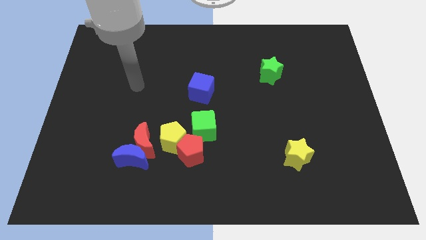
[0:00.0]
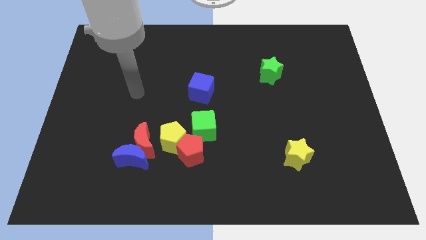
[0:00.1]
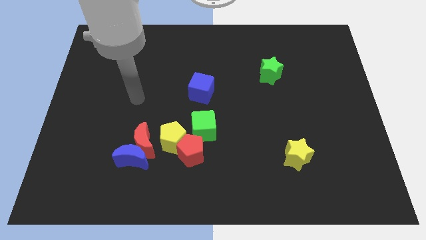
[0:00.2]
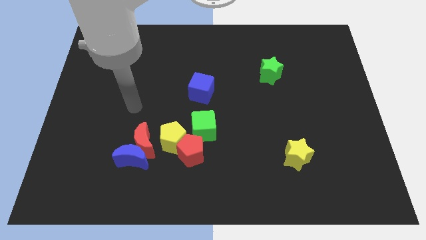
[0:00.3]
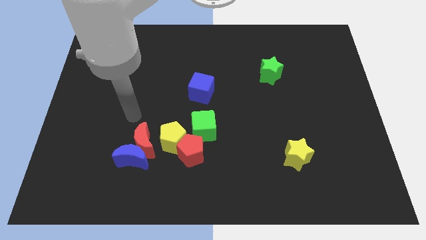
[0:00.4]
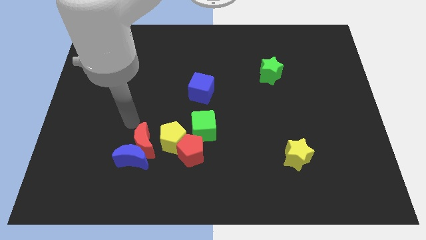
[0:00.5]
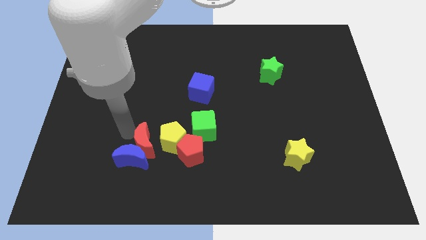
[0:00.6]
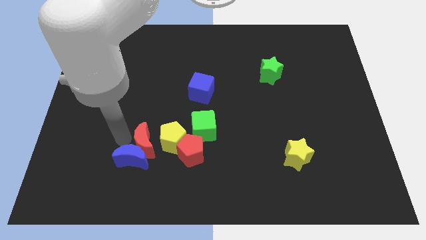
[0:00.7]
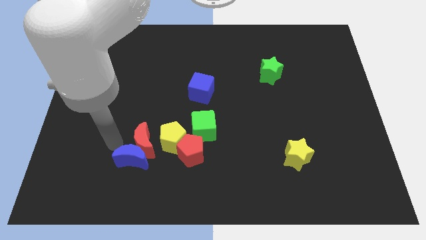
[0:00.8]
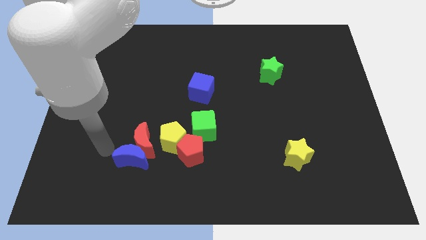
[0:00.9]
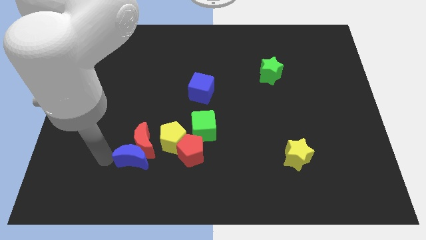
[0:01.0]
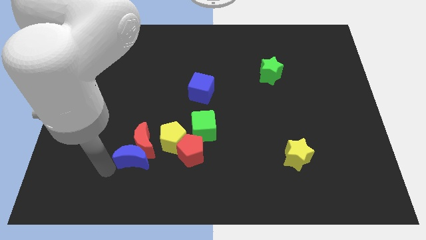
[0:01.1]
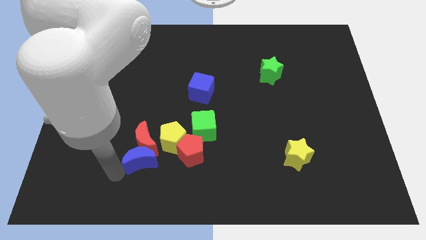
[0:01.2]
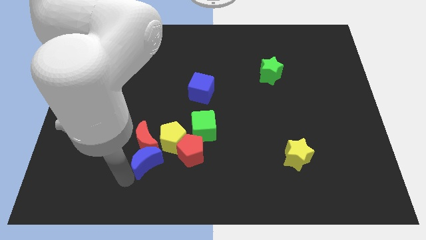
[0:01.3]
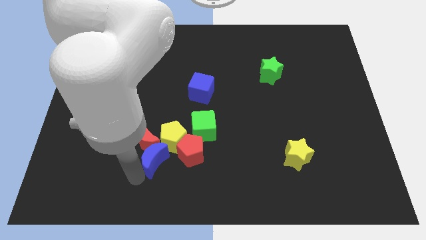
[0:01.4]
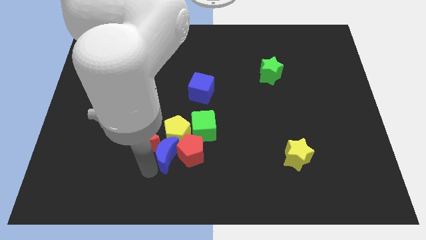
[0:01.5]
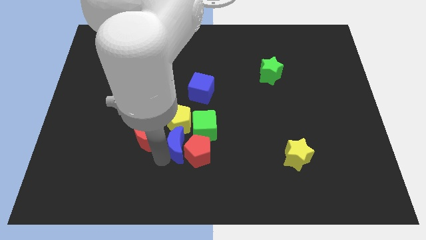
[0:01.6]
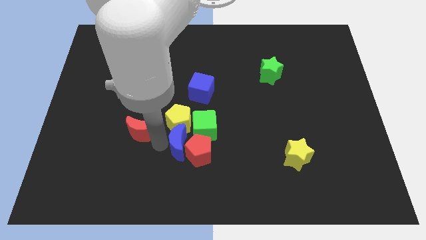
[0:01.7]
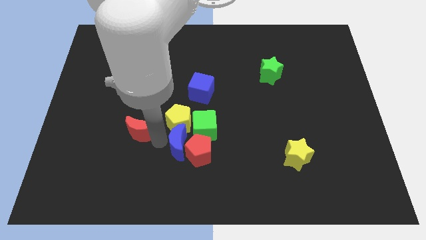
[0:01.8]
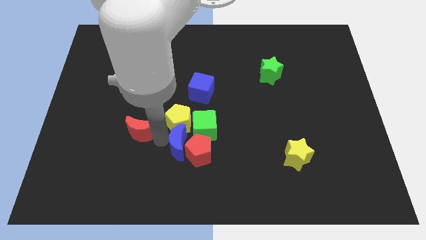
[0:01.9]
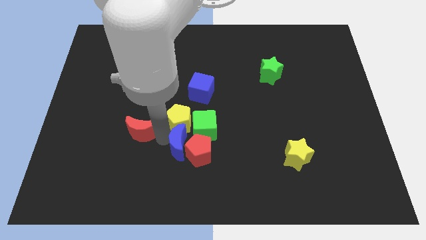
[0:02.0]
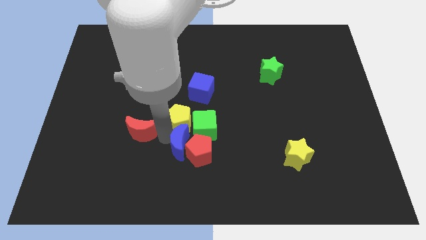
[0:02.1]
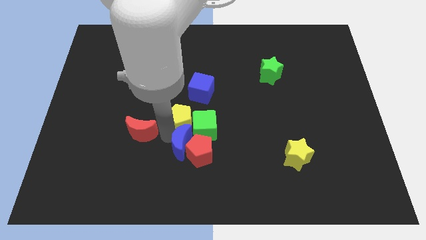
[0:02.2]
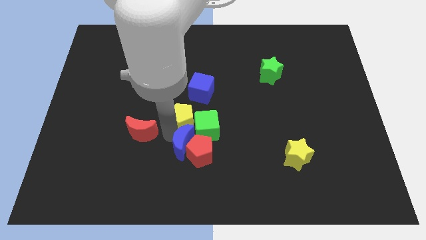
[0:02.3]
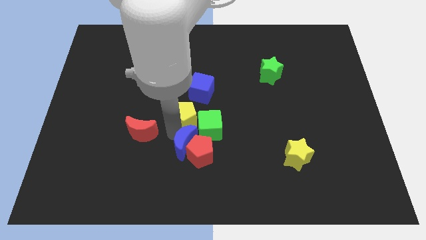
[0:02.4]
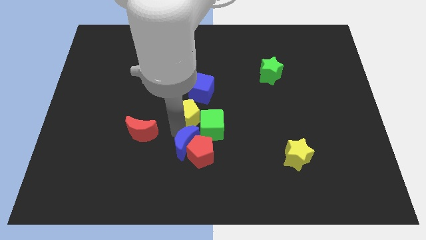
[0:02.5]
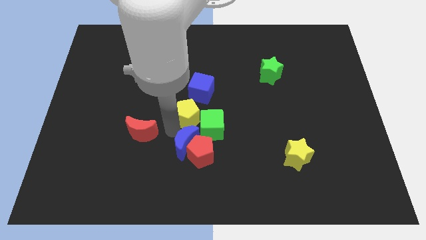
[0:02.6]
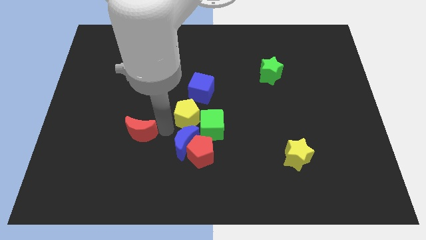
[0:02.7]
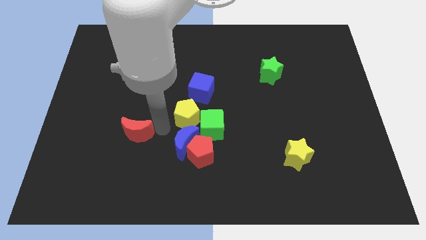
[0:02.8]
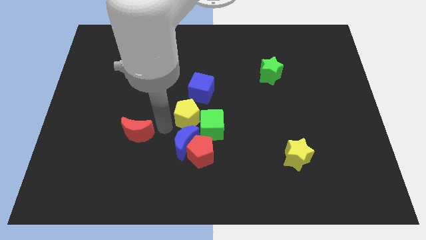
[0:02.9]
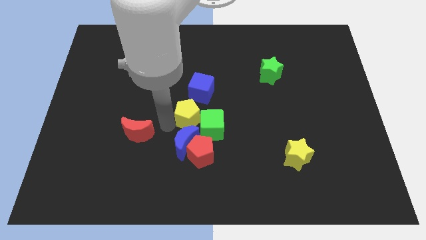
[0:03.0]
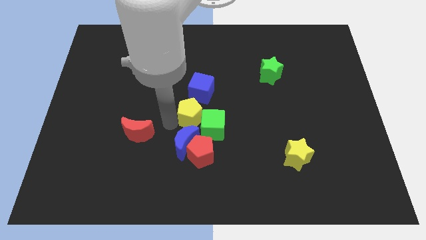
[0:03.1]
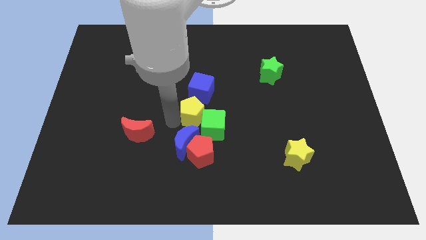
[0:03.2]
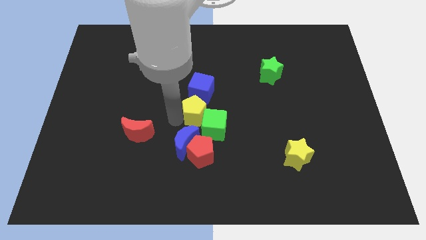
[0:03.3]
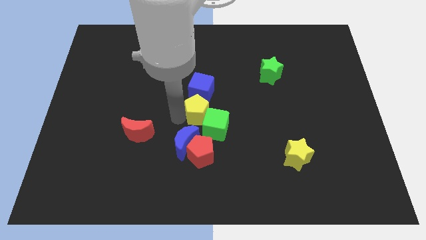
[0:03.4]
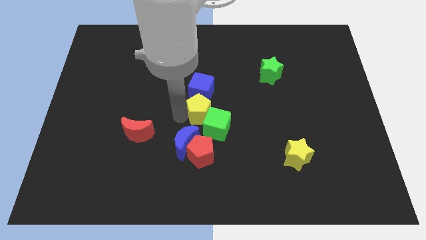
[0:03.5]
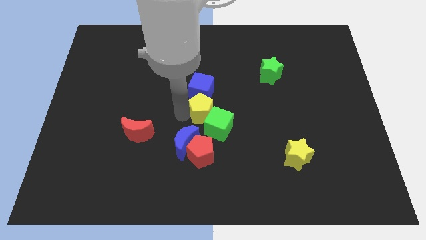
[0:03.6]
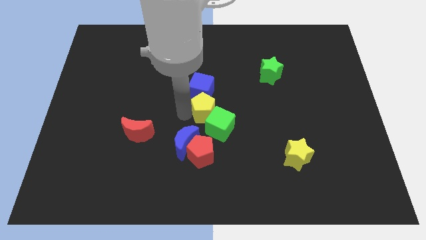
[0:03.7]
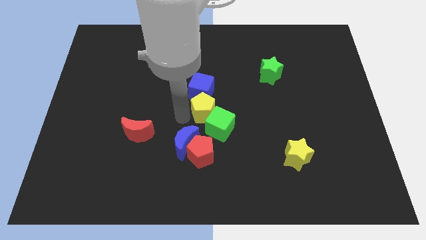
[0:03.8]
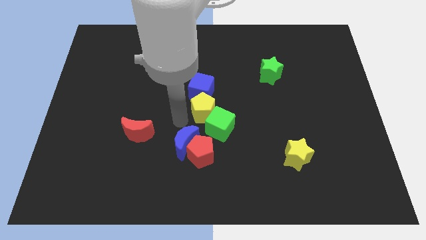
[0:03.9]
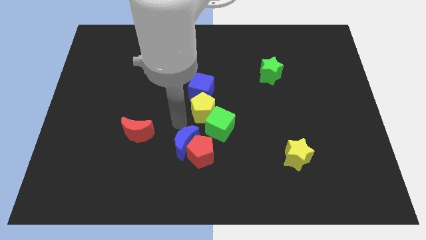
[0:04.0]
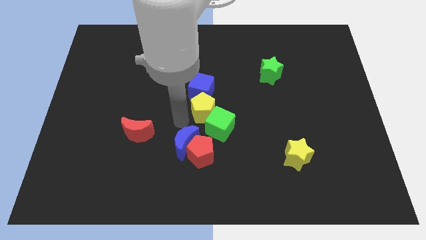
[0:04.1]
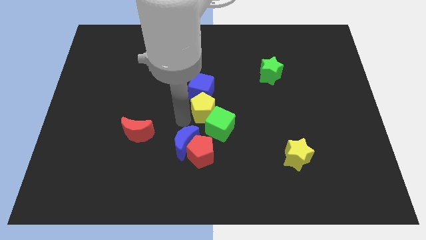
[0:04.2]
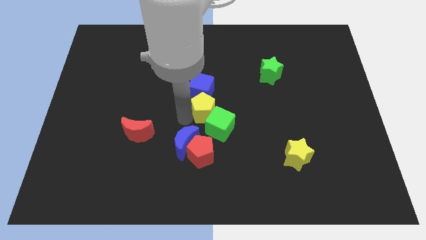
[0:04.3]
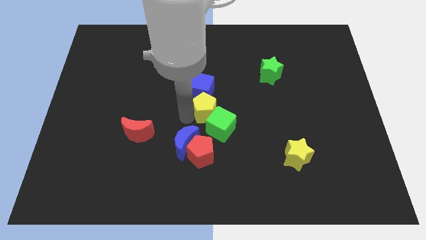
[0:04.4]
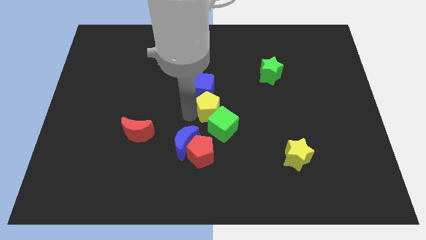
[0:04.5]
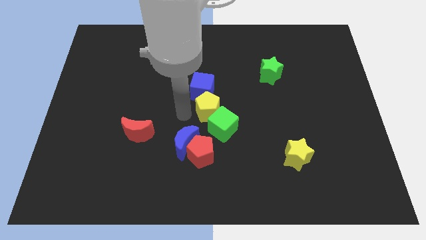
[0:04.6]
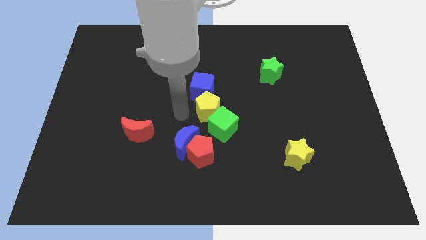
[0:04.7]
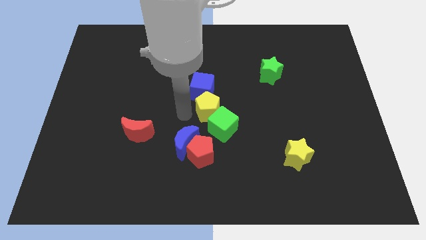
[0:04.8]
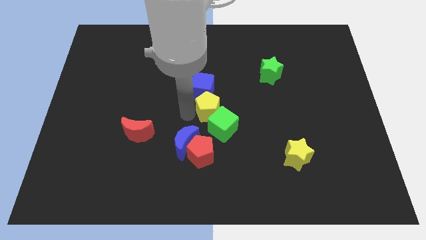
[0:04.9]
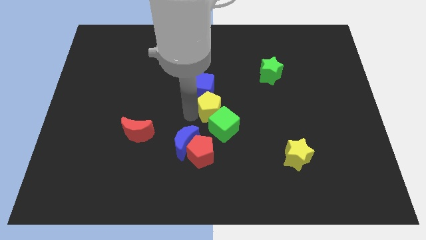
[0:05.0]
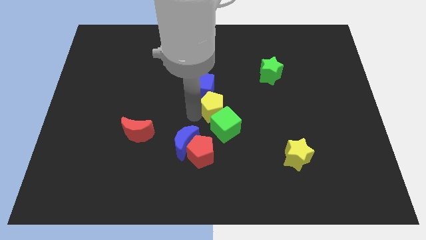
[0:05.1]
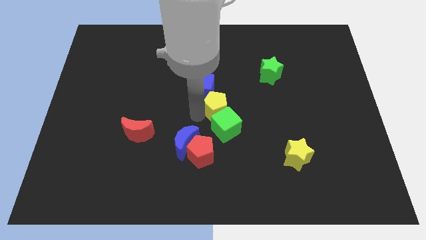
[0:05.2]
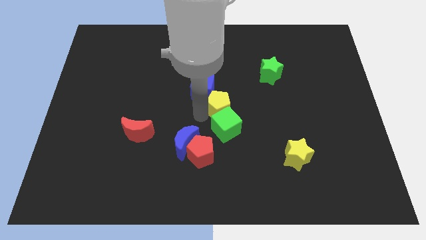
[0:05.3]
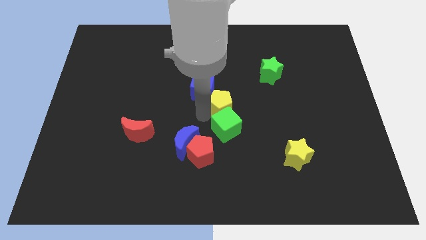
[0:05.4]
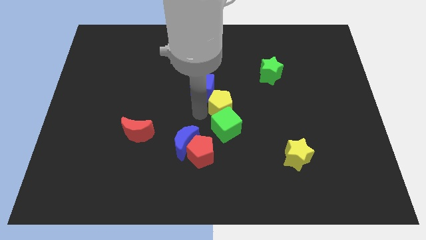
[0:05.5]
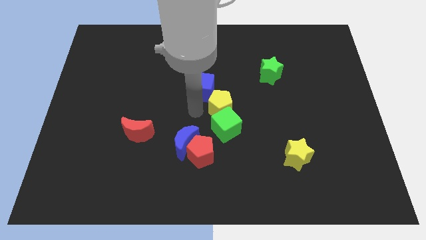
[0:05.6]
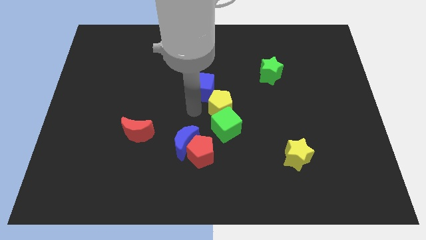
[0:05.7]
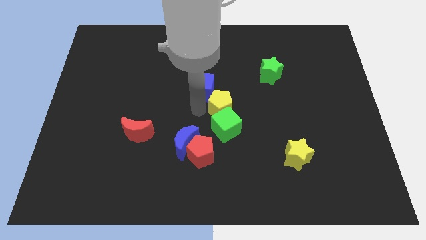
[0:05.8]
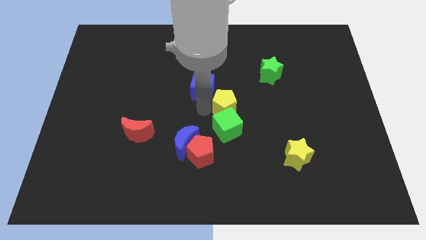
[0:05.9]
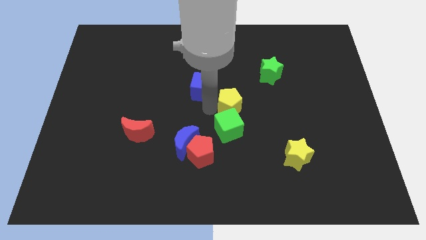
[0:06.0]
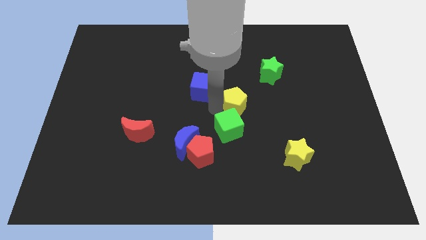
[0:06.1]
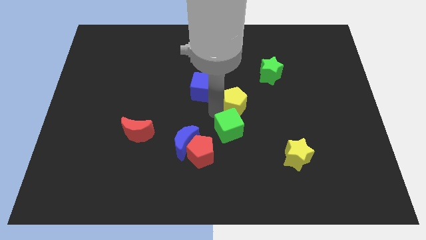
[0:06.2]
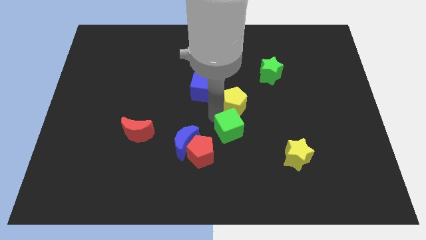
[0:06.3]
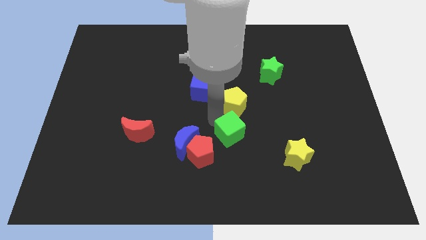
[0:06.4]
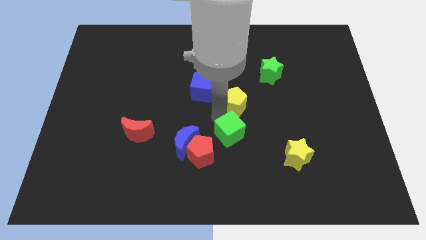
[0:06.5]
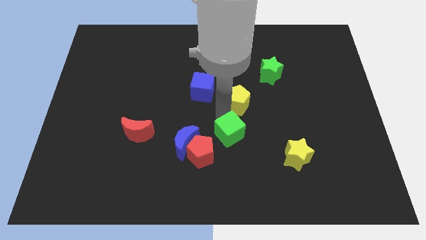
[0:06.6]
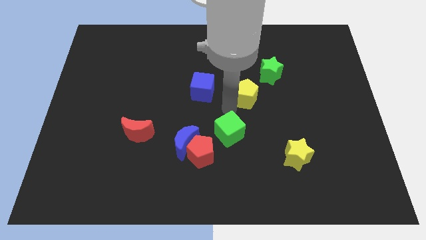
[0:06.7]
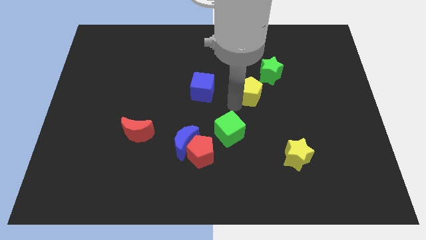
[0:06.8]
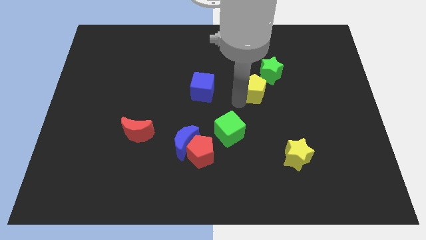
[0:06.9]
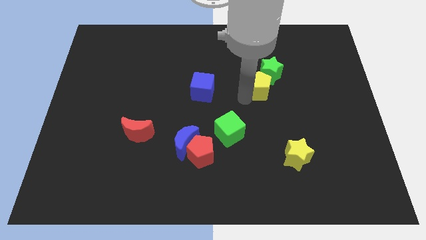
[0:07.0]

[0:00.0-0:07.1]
push the yellow pentagon towards the green star
